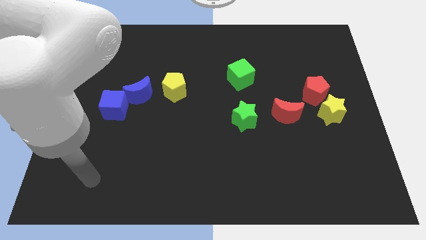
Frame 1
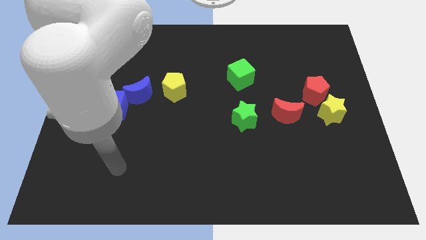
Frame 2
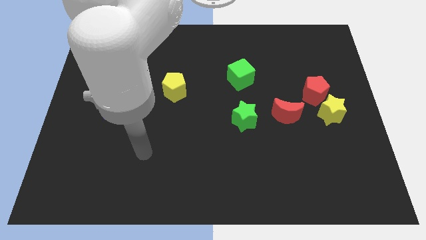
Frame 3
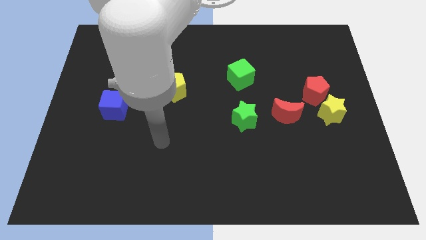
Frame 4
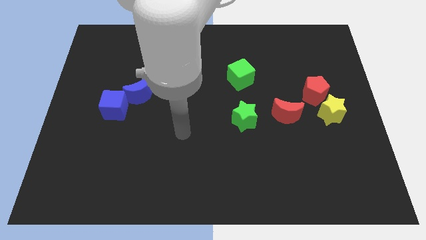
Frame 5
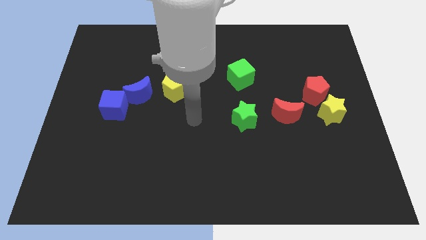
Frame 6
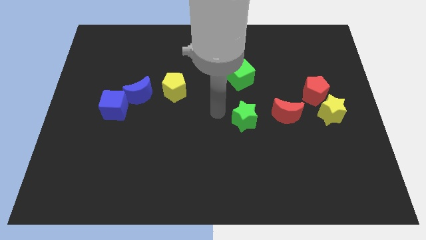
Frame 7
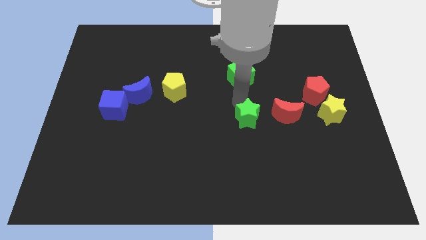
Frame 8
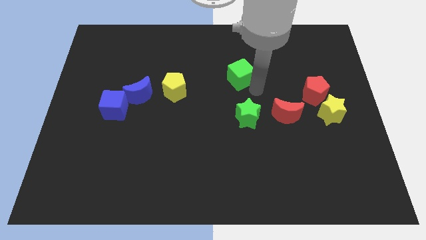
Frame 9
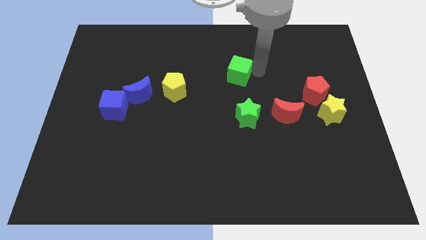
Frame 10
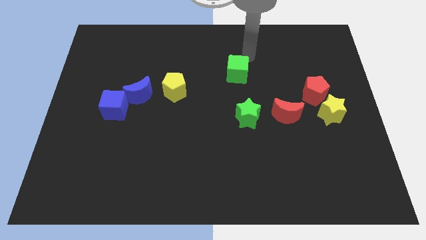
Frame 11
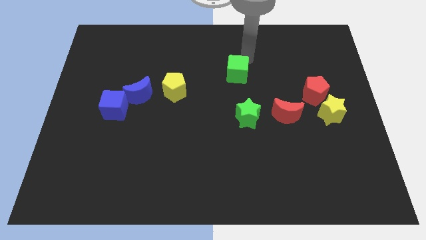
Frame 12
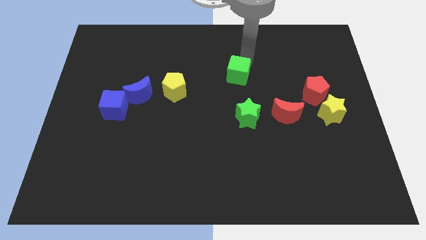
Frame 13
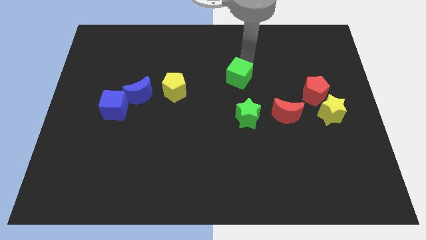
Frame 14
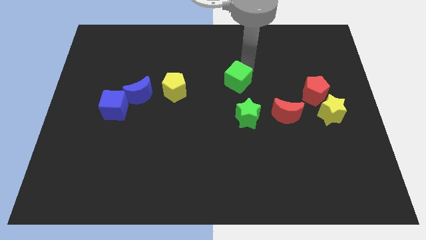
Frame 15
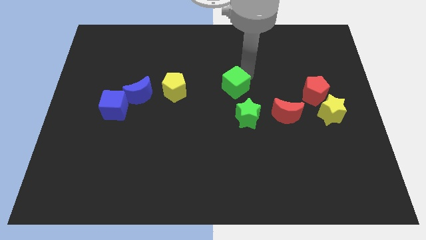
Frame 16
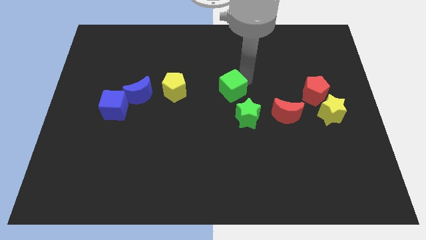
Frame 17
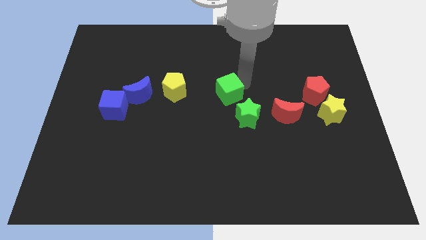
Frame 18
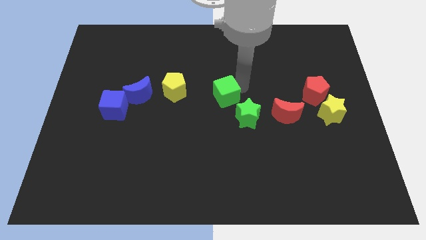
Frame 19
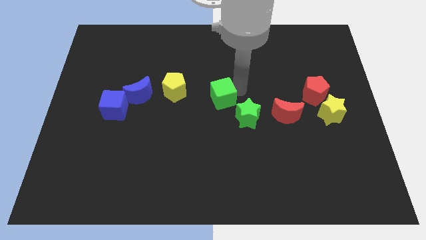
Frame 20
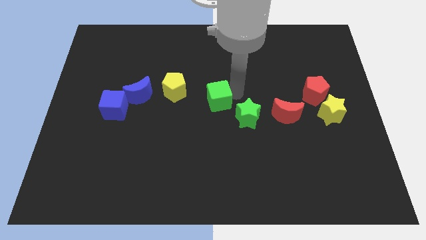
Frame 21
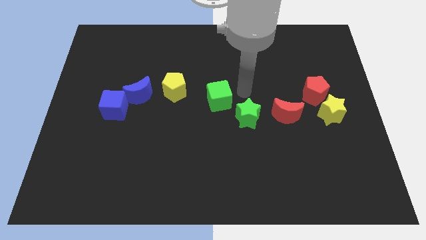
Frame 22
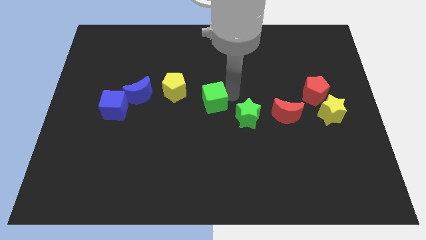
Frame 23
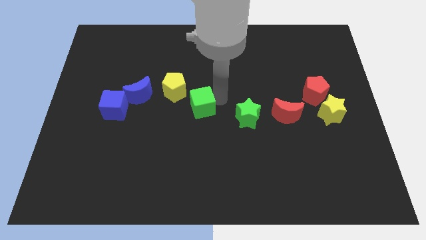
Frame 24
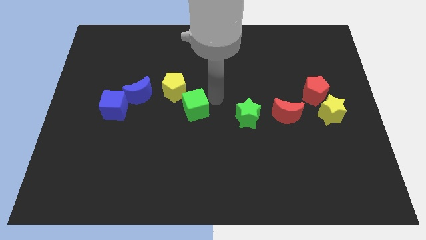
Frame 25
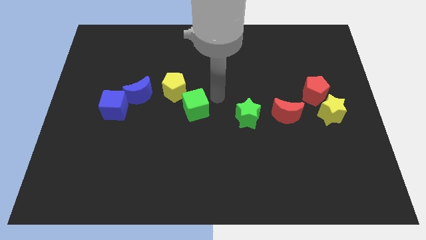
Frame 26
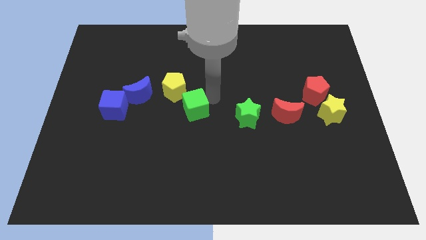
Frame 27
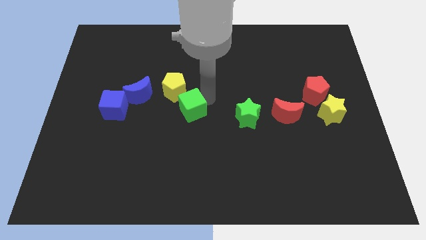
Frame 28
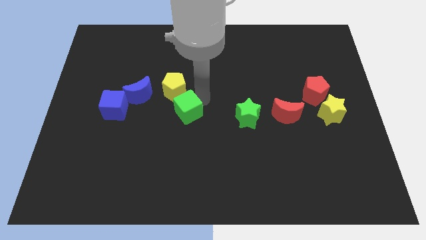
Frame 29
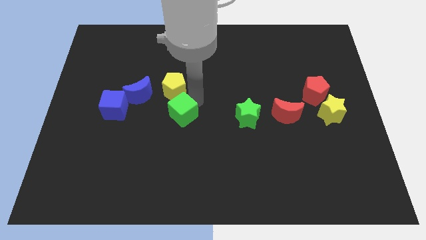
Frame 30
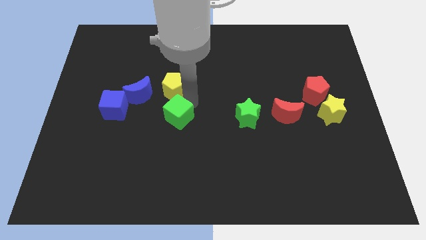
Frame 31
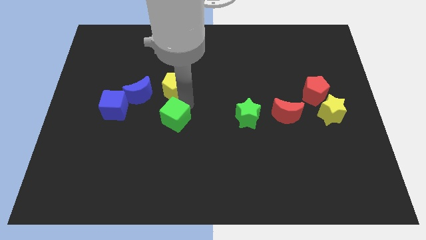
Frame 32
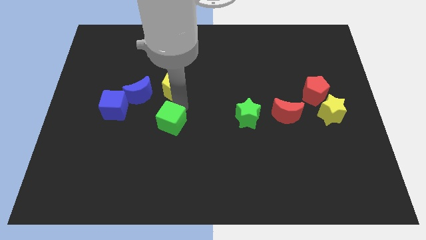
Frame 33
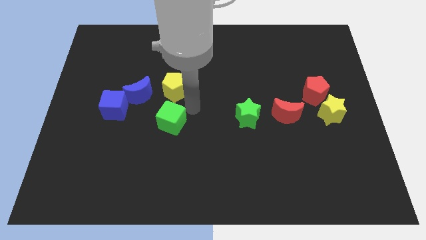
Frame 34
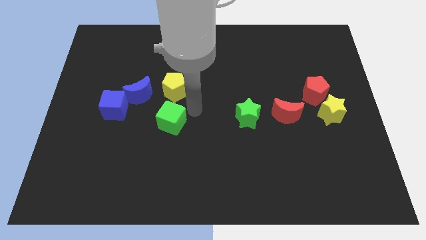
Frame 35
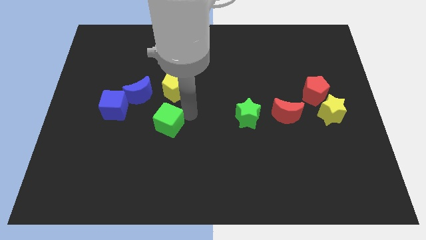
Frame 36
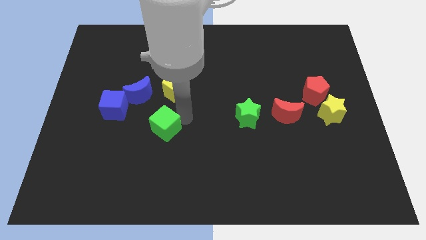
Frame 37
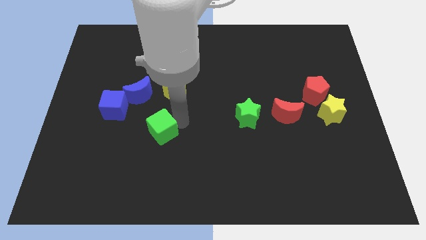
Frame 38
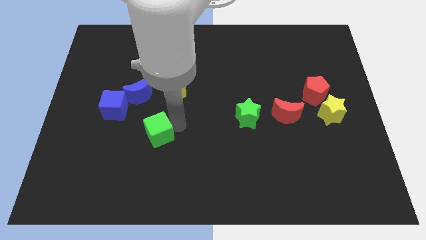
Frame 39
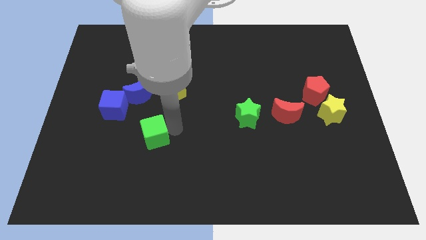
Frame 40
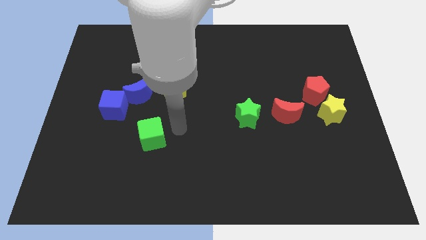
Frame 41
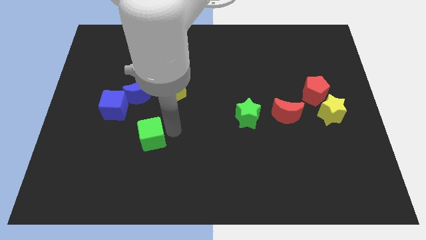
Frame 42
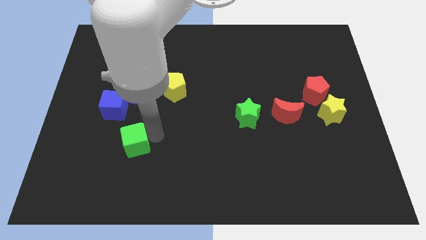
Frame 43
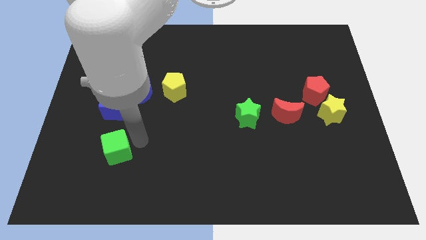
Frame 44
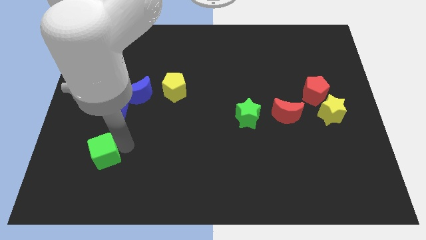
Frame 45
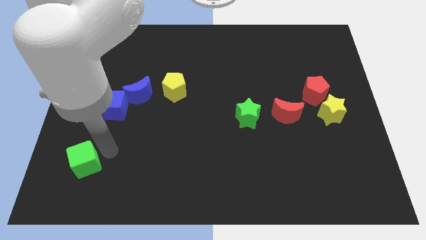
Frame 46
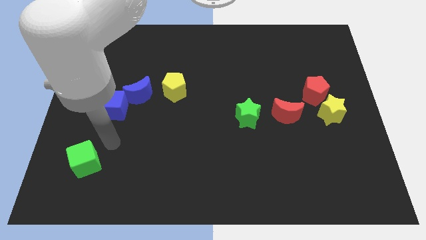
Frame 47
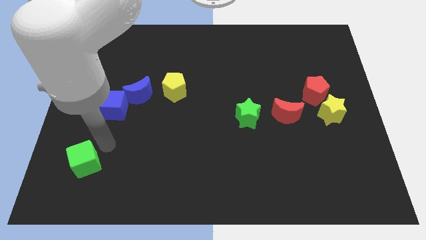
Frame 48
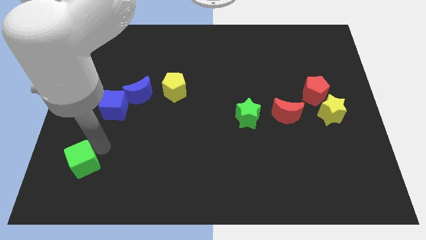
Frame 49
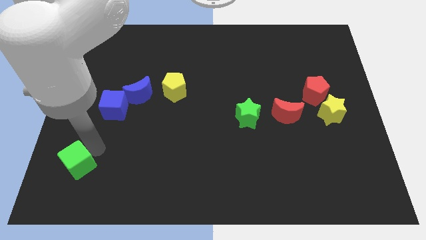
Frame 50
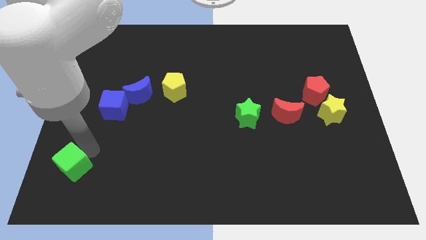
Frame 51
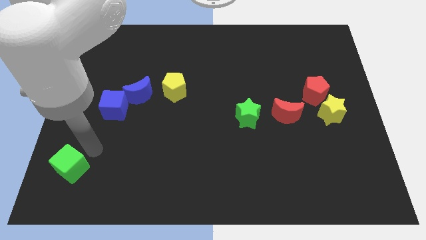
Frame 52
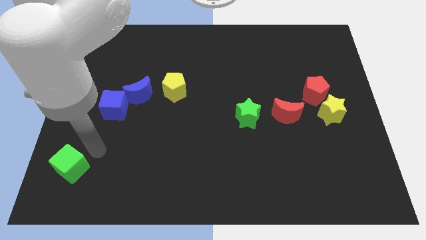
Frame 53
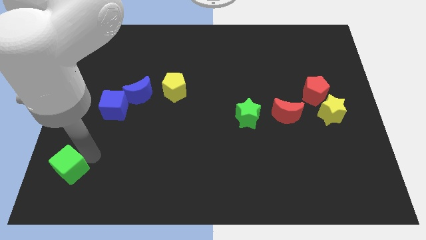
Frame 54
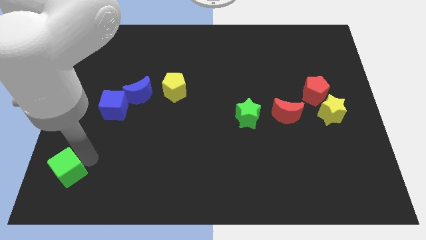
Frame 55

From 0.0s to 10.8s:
move the green cube to the lower left corner

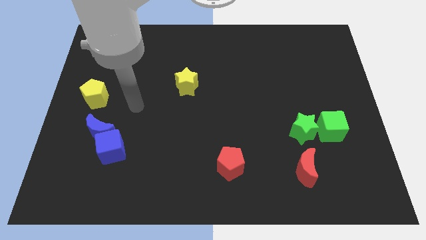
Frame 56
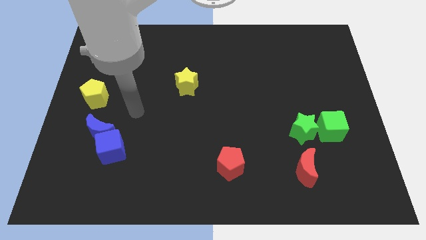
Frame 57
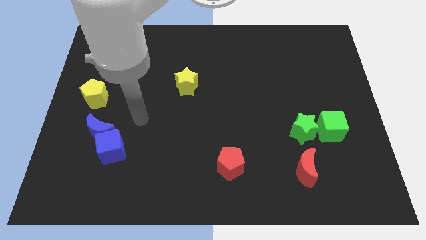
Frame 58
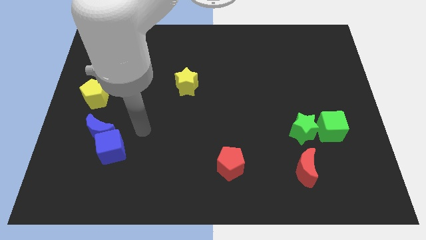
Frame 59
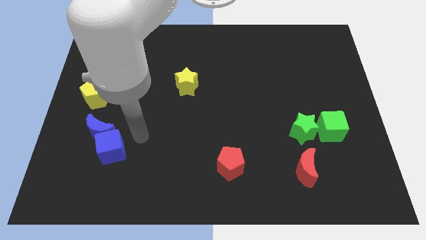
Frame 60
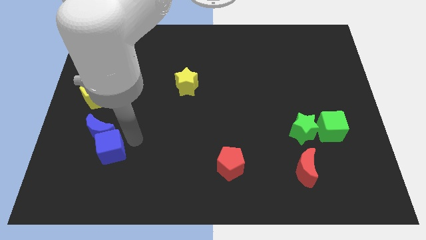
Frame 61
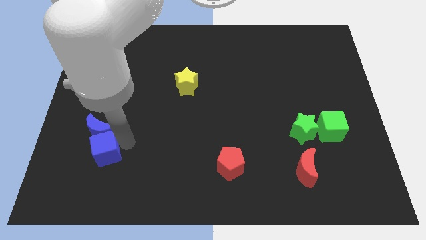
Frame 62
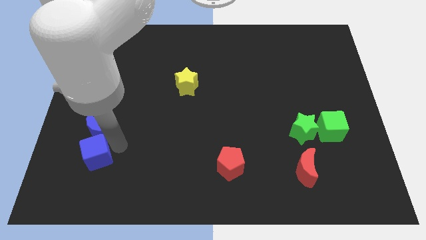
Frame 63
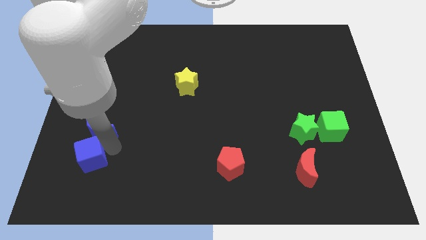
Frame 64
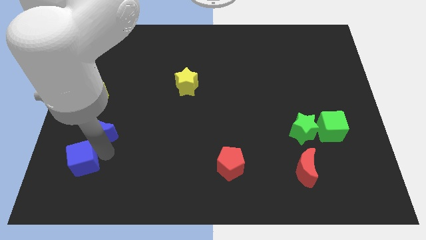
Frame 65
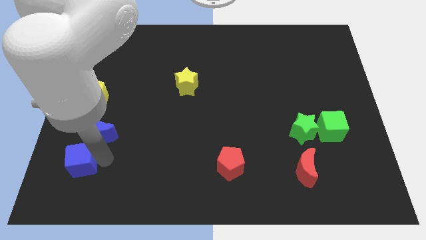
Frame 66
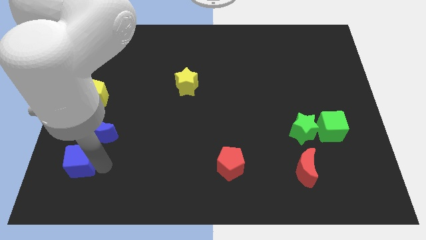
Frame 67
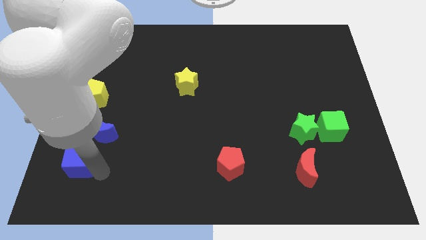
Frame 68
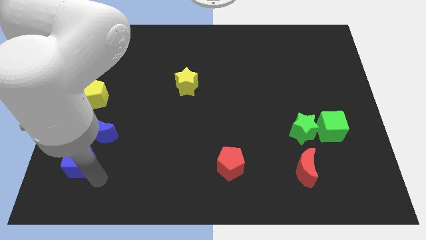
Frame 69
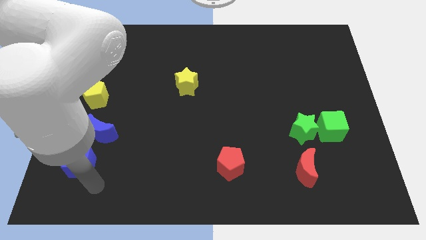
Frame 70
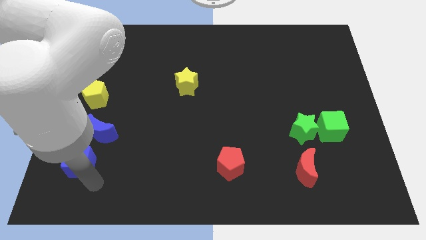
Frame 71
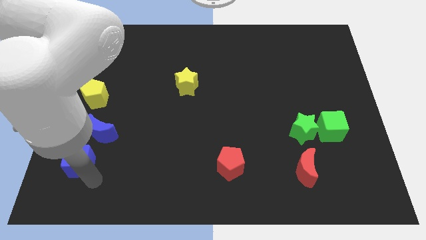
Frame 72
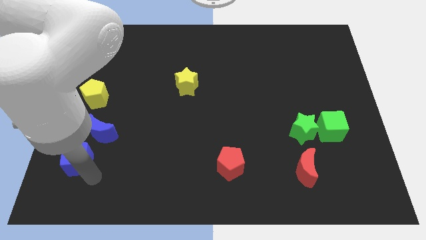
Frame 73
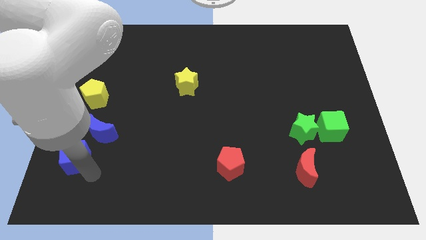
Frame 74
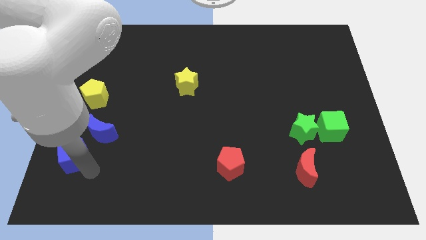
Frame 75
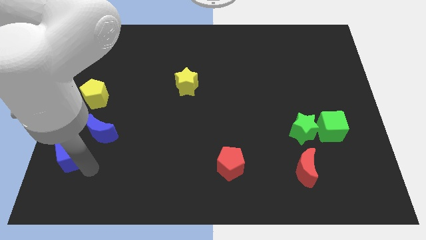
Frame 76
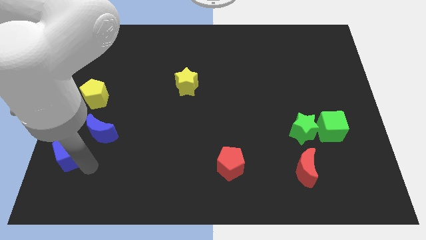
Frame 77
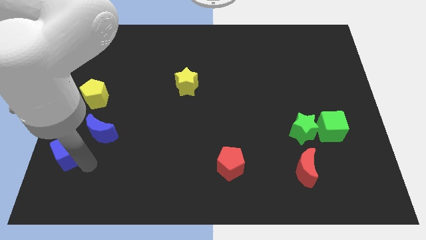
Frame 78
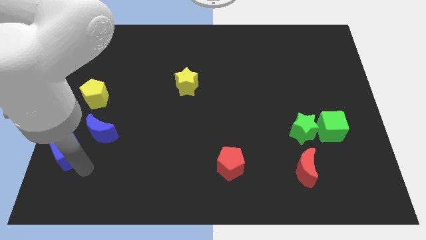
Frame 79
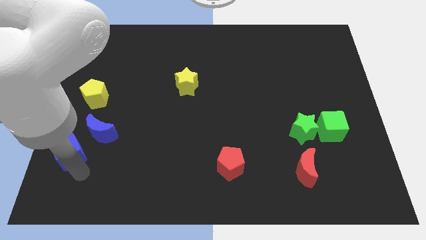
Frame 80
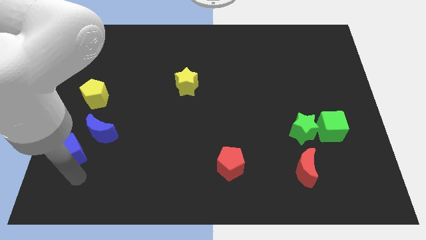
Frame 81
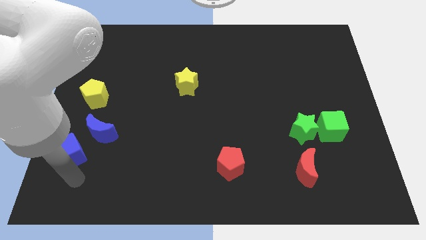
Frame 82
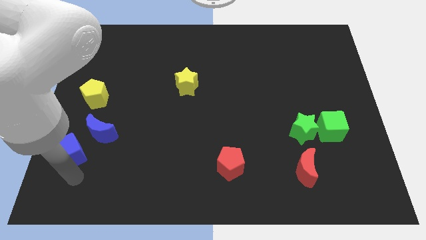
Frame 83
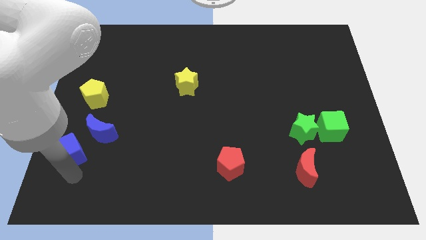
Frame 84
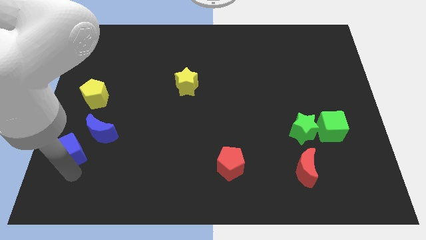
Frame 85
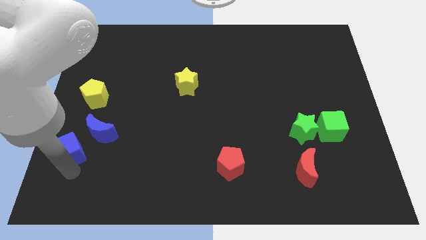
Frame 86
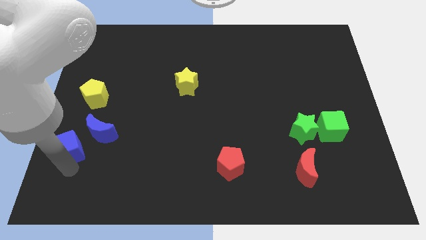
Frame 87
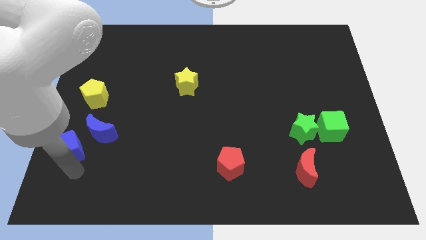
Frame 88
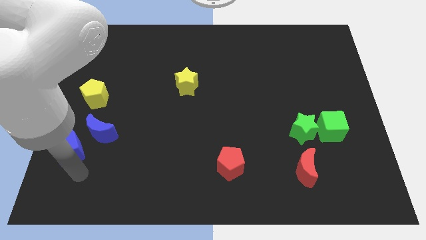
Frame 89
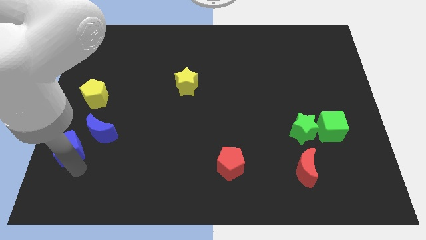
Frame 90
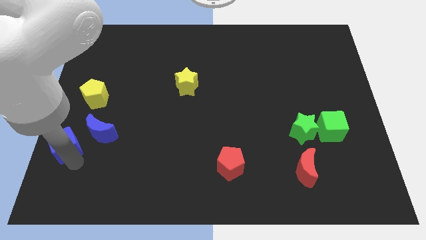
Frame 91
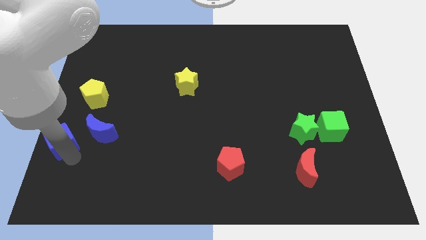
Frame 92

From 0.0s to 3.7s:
slide the blue cube to the left side
